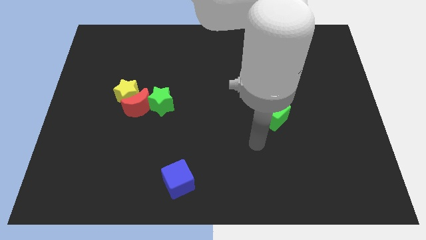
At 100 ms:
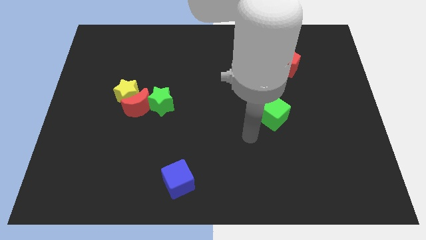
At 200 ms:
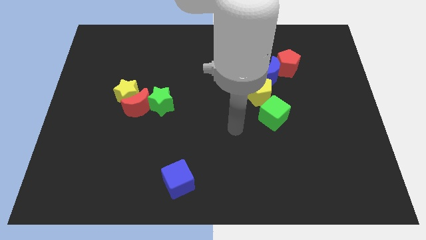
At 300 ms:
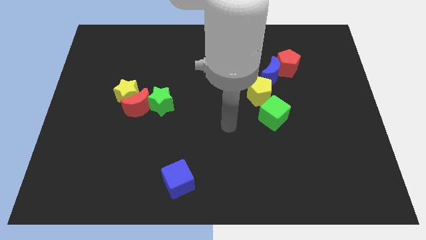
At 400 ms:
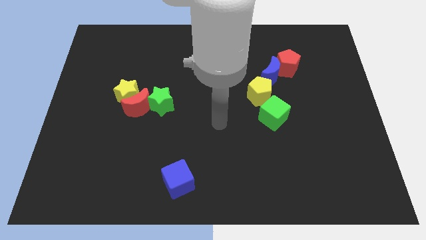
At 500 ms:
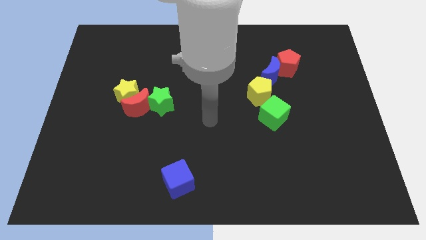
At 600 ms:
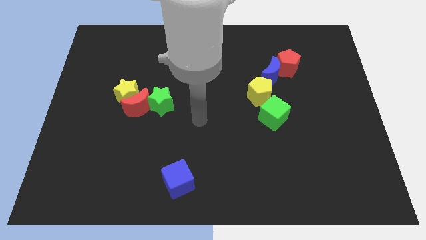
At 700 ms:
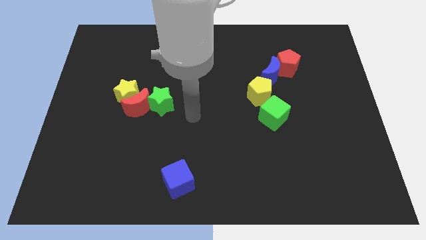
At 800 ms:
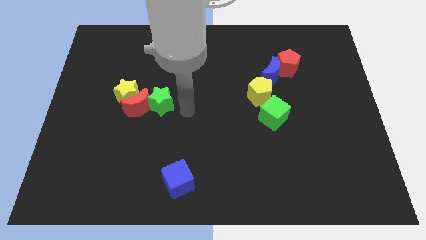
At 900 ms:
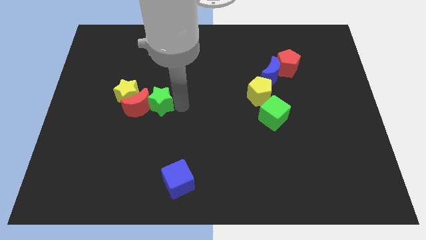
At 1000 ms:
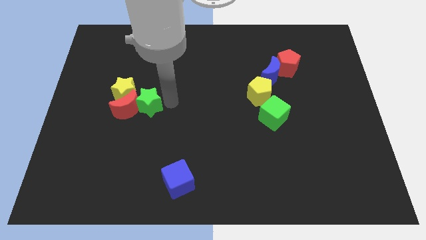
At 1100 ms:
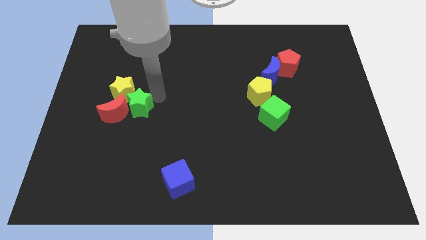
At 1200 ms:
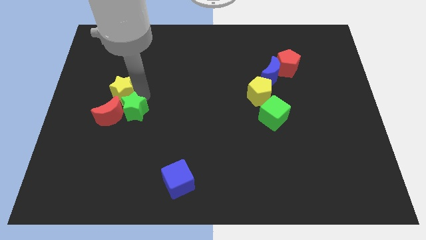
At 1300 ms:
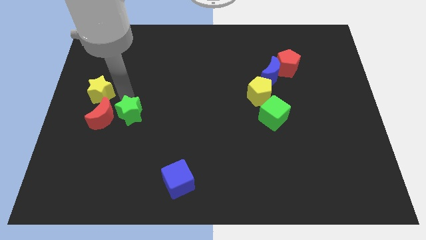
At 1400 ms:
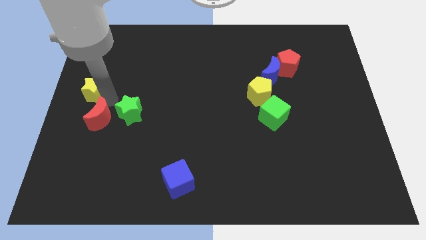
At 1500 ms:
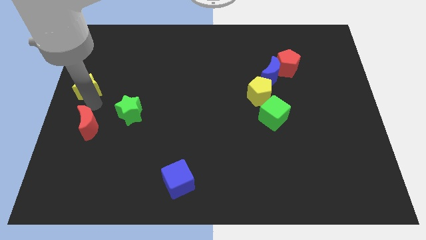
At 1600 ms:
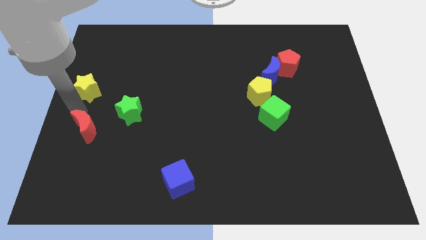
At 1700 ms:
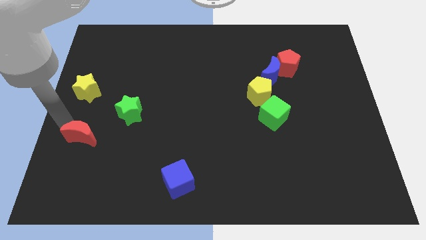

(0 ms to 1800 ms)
pull the red moon apart from the yellow star and green star

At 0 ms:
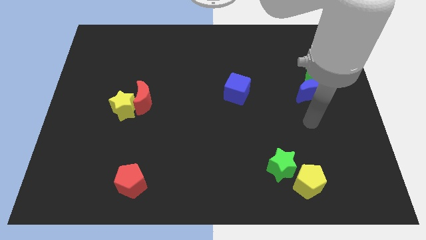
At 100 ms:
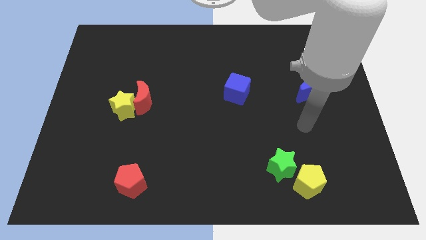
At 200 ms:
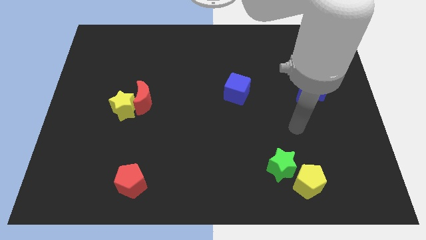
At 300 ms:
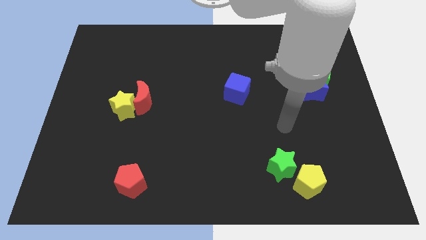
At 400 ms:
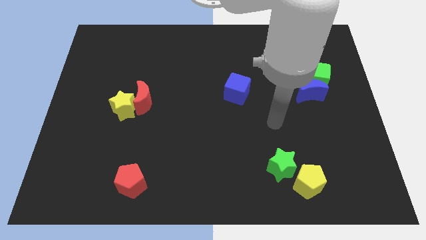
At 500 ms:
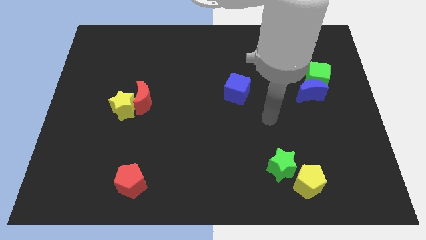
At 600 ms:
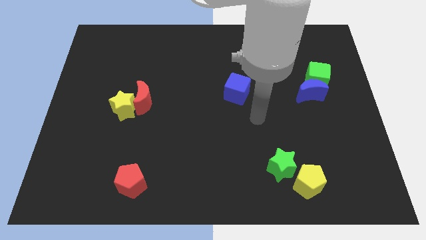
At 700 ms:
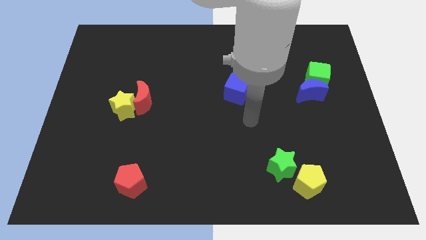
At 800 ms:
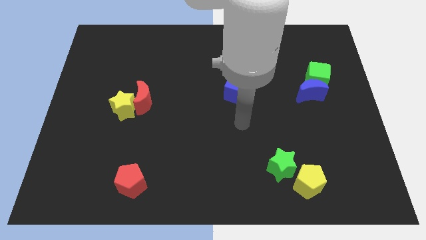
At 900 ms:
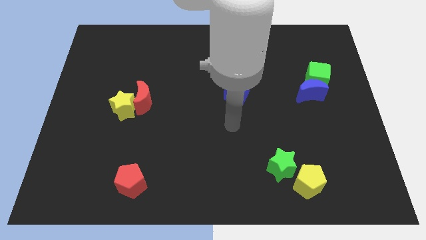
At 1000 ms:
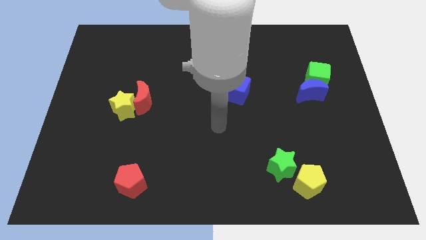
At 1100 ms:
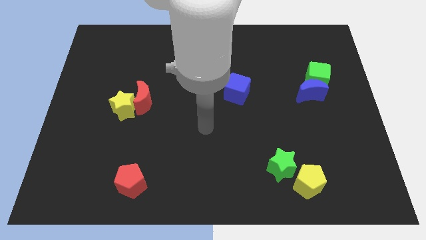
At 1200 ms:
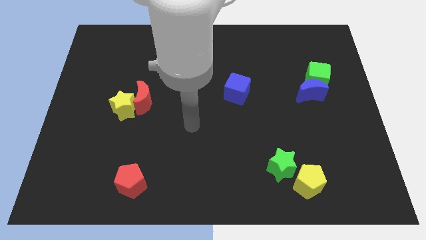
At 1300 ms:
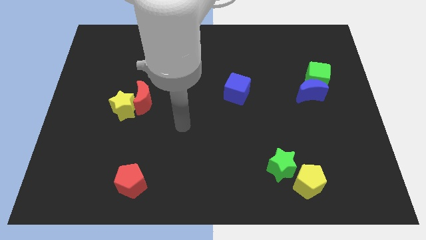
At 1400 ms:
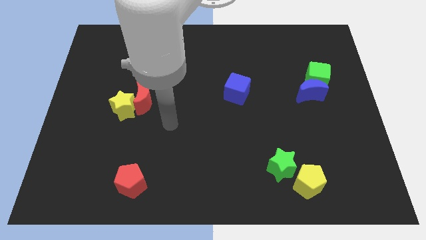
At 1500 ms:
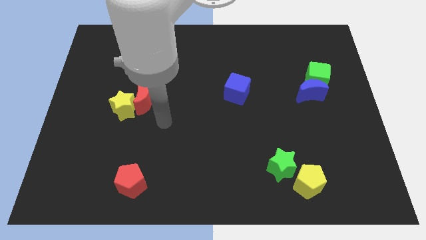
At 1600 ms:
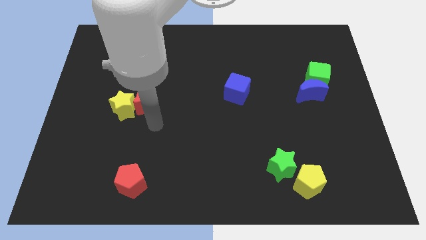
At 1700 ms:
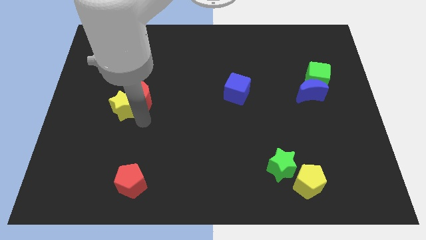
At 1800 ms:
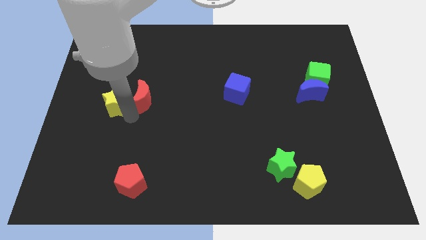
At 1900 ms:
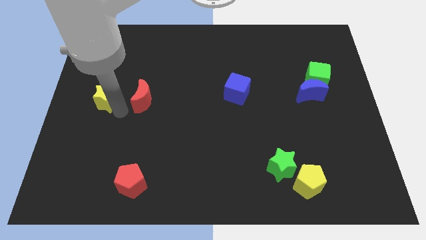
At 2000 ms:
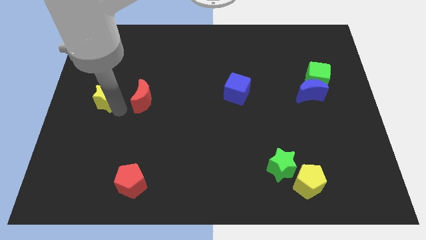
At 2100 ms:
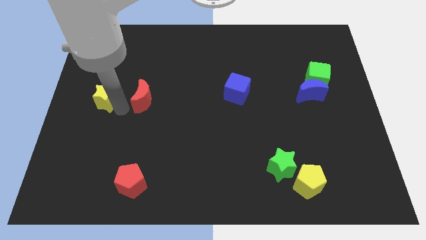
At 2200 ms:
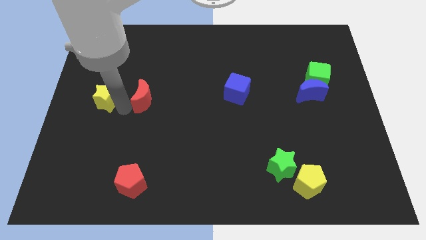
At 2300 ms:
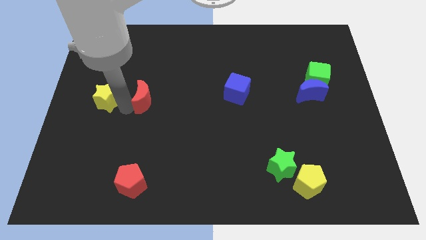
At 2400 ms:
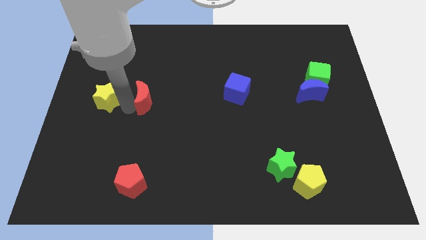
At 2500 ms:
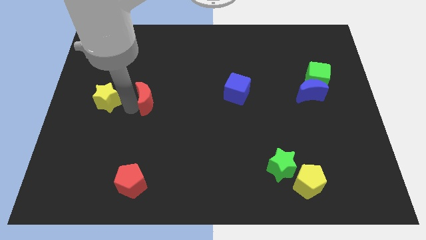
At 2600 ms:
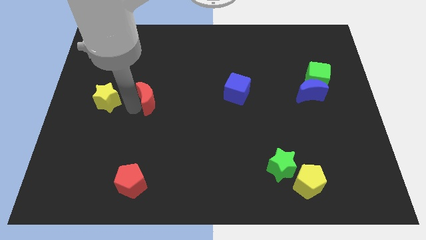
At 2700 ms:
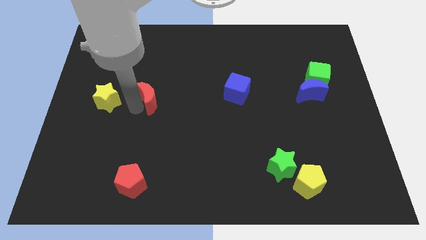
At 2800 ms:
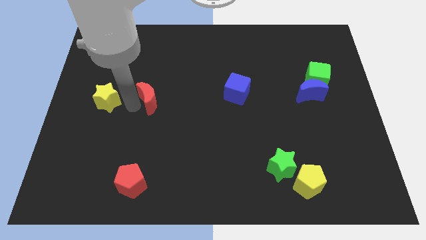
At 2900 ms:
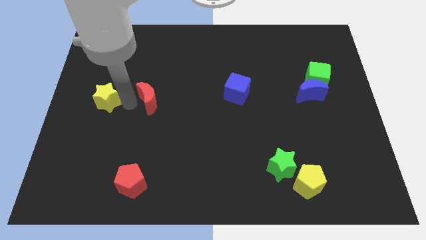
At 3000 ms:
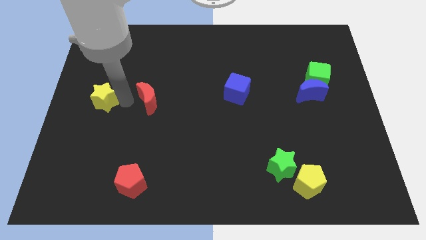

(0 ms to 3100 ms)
separate the red moon from the yellow star

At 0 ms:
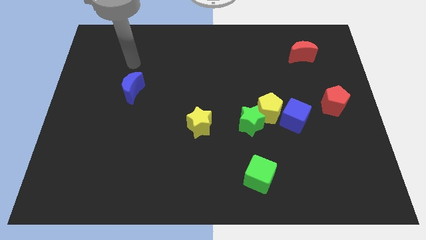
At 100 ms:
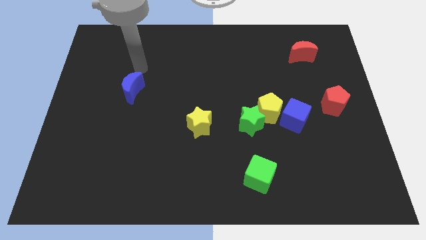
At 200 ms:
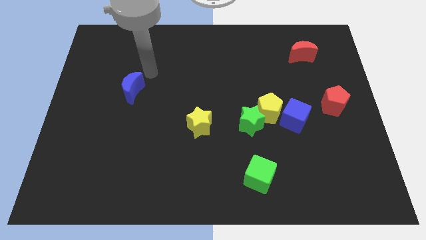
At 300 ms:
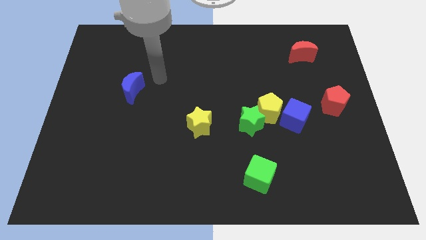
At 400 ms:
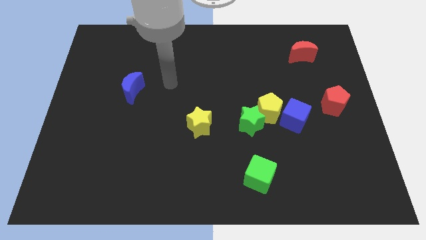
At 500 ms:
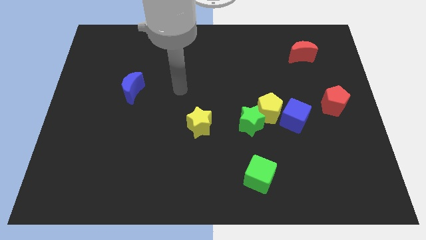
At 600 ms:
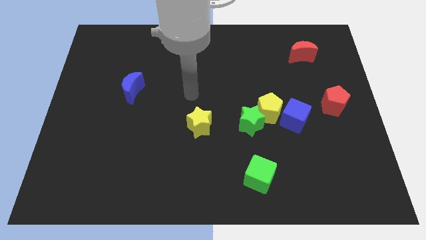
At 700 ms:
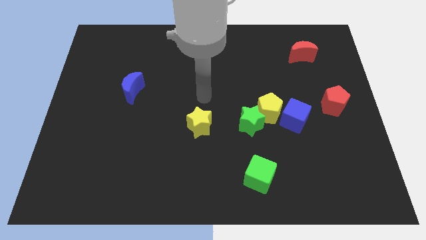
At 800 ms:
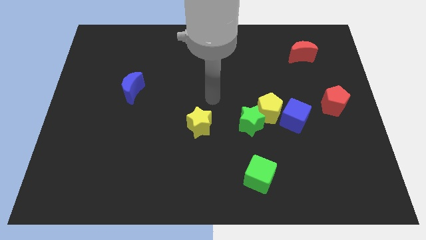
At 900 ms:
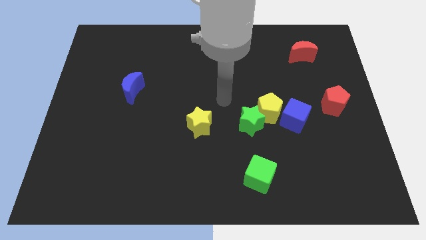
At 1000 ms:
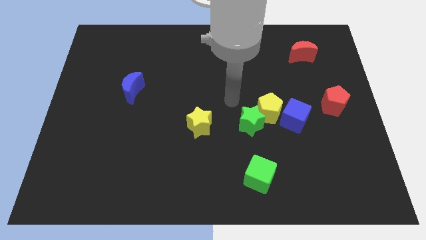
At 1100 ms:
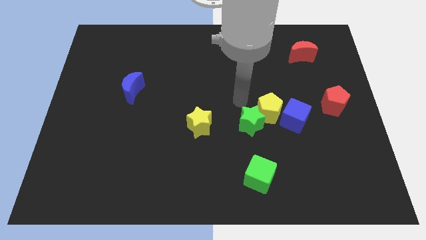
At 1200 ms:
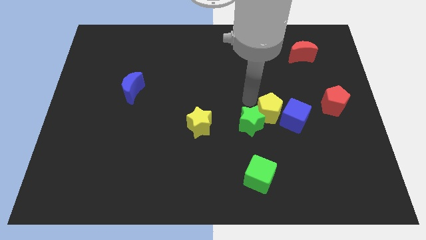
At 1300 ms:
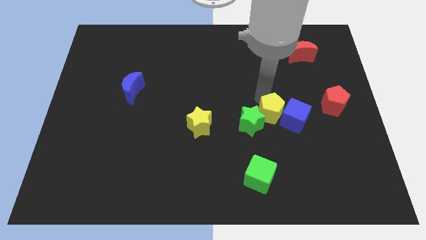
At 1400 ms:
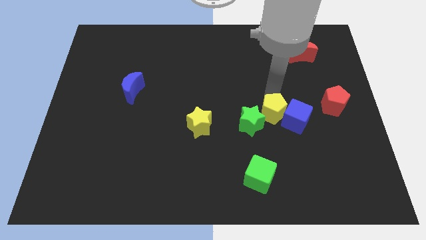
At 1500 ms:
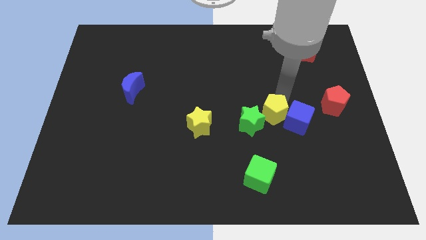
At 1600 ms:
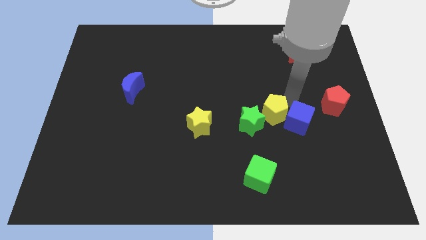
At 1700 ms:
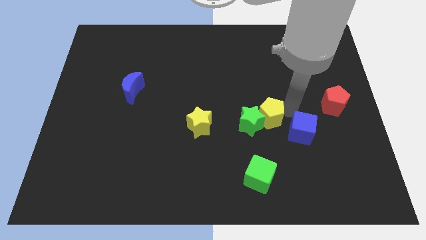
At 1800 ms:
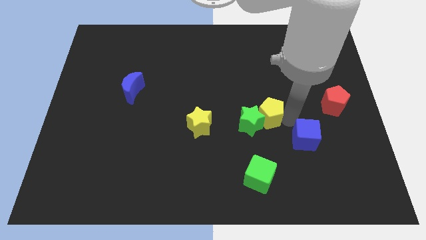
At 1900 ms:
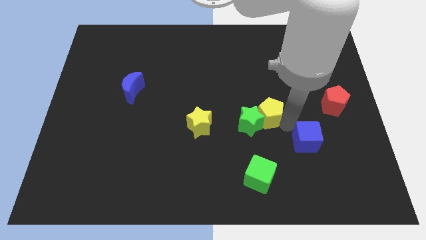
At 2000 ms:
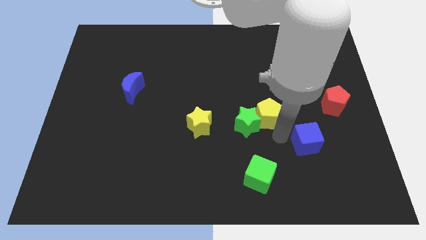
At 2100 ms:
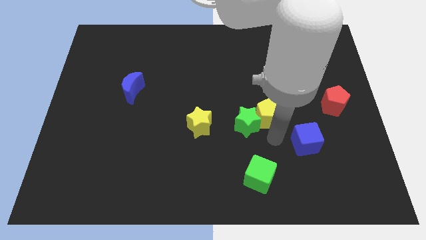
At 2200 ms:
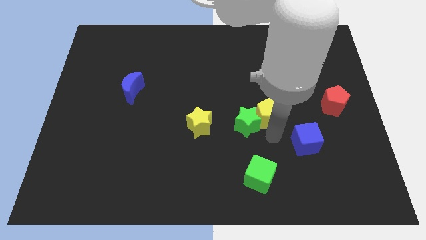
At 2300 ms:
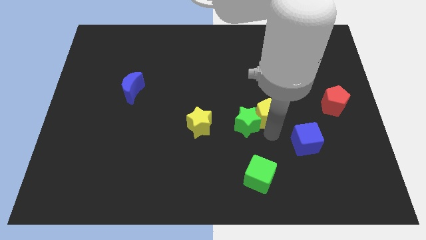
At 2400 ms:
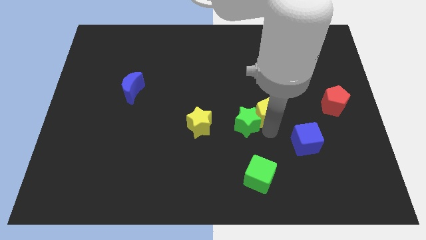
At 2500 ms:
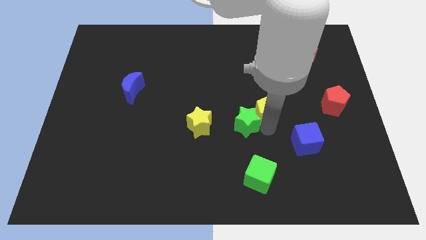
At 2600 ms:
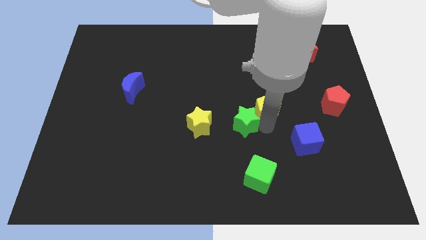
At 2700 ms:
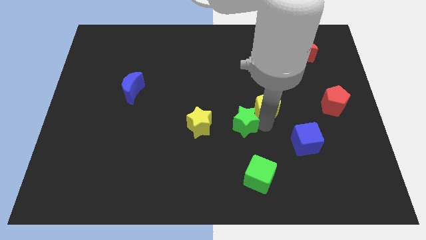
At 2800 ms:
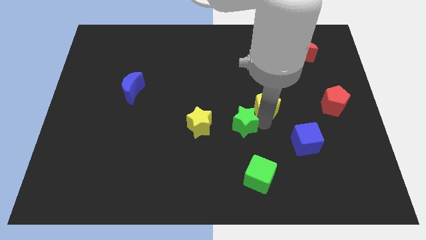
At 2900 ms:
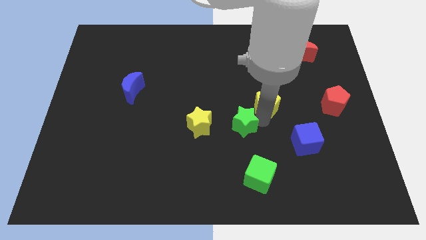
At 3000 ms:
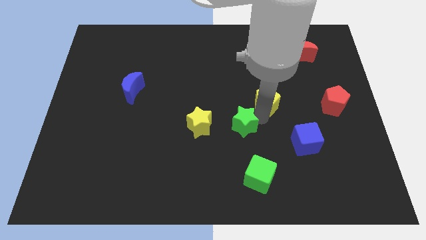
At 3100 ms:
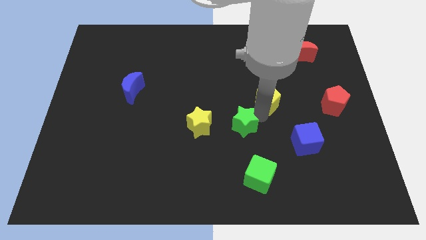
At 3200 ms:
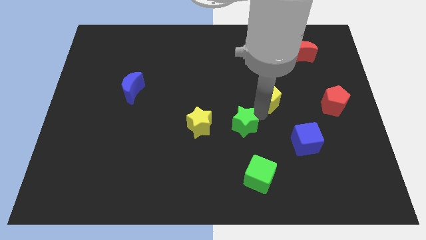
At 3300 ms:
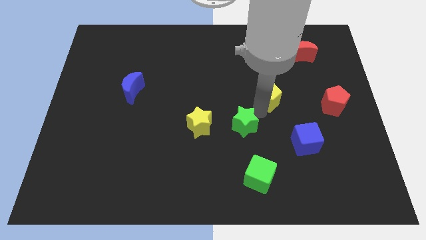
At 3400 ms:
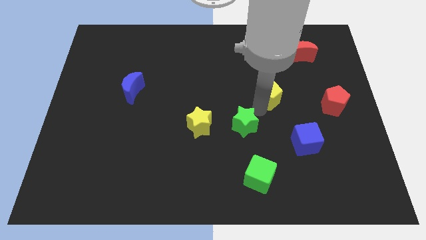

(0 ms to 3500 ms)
move the yellow pentagon away from the green star and blue cube

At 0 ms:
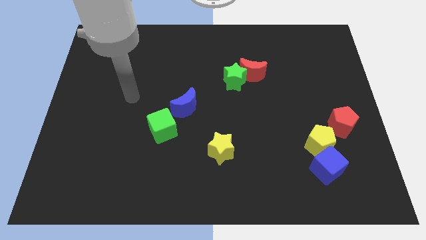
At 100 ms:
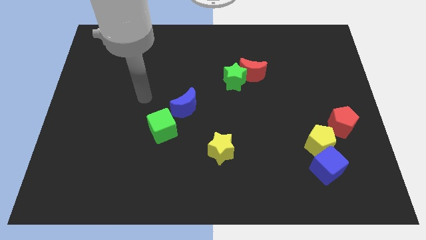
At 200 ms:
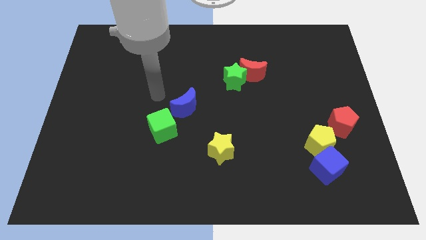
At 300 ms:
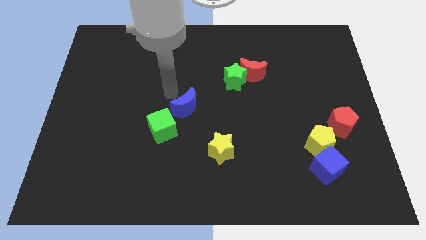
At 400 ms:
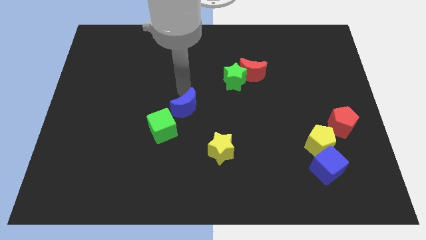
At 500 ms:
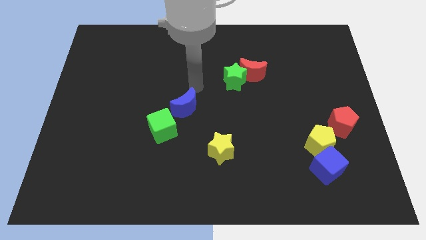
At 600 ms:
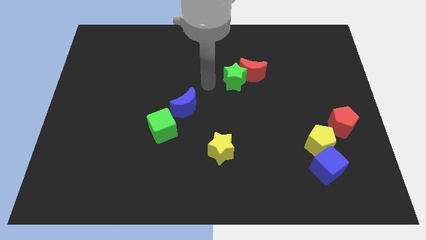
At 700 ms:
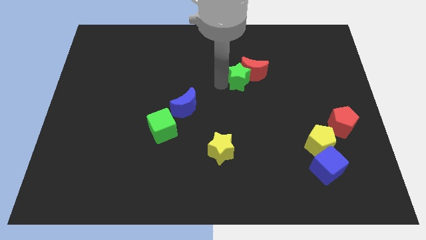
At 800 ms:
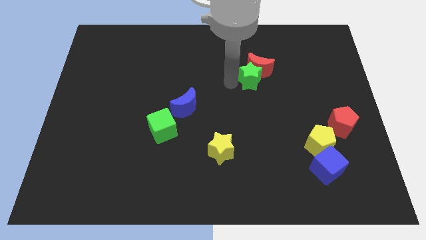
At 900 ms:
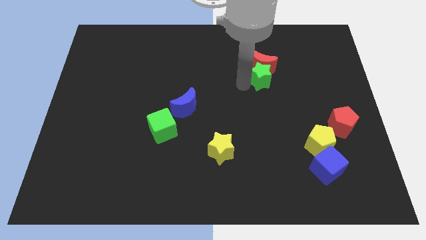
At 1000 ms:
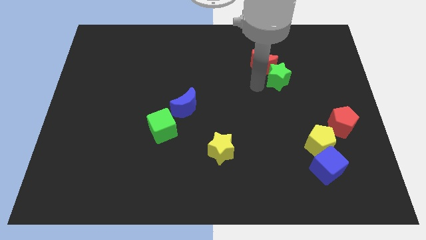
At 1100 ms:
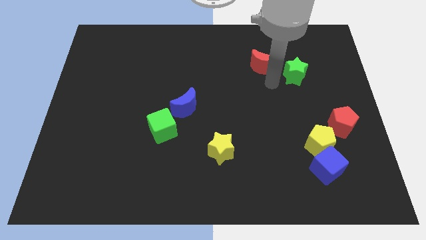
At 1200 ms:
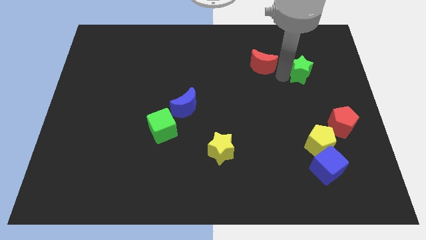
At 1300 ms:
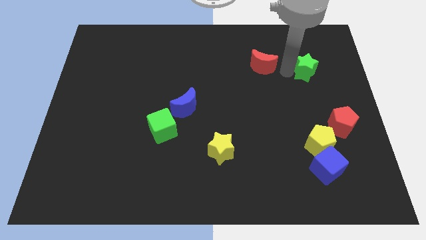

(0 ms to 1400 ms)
move the red moon away from the green star
